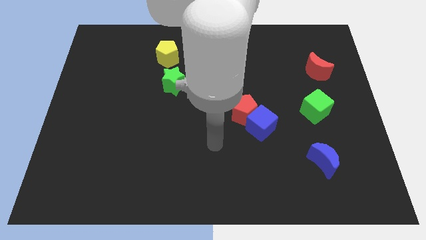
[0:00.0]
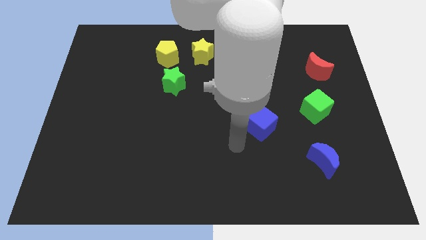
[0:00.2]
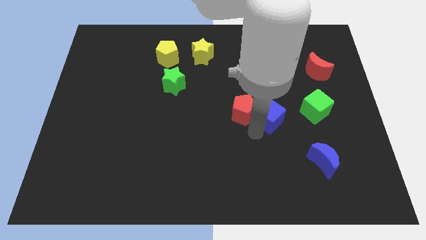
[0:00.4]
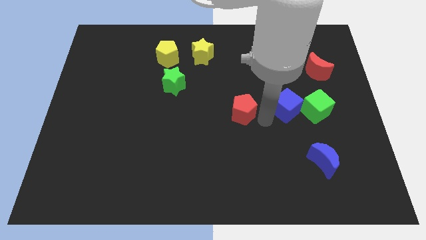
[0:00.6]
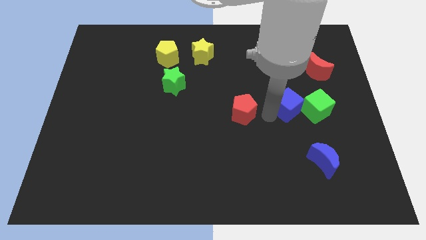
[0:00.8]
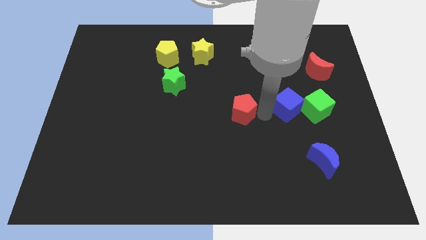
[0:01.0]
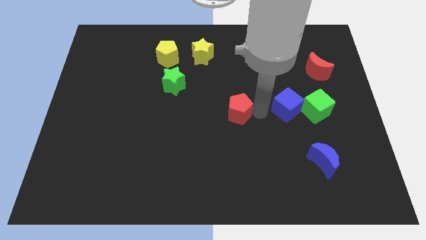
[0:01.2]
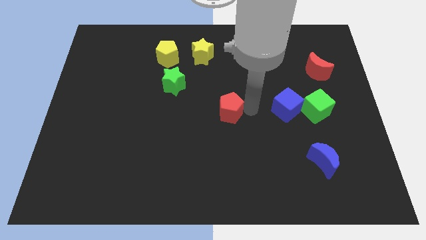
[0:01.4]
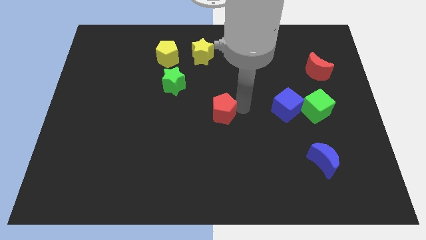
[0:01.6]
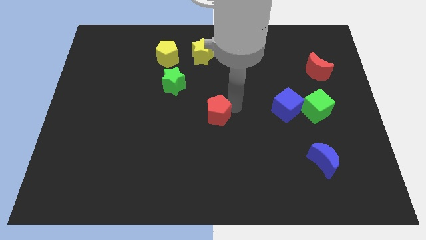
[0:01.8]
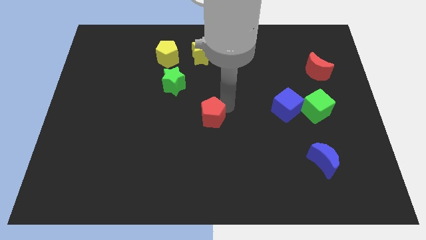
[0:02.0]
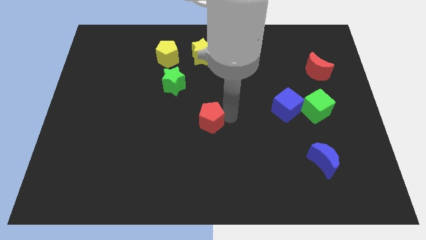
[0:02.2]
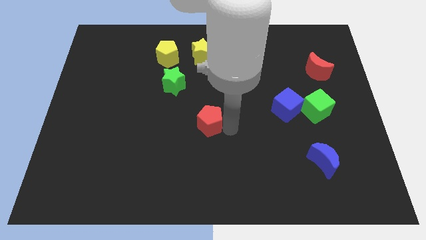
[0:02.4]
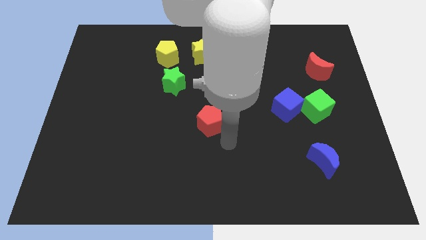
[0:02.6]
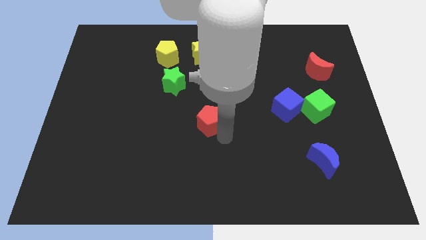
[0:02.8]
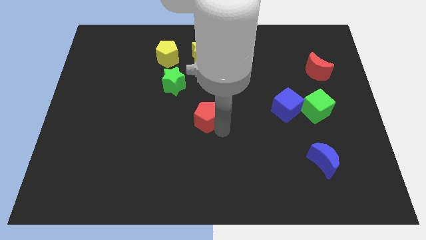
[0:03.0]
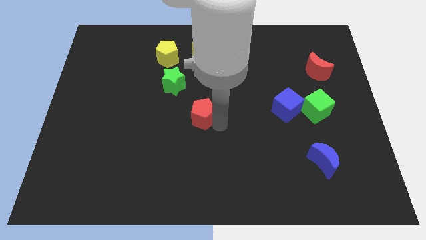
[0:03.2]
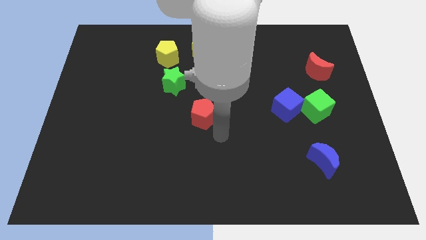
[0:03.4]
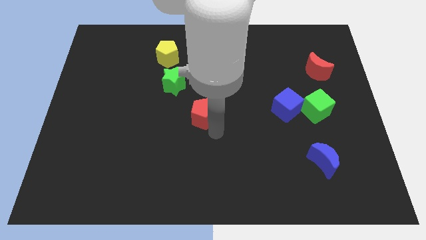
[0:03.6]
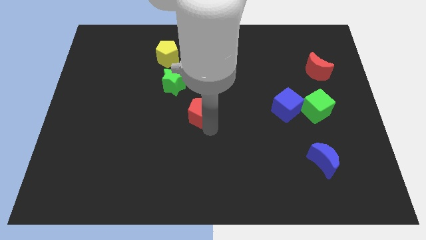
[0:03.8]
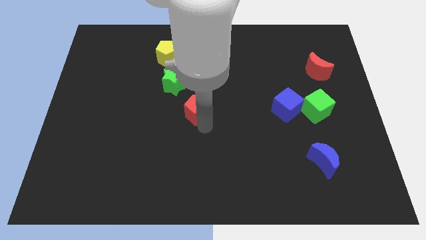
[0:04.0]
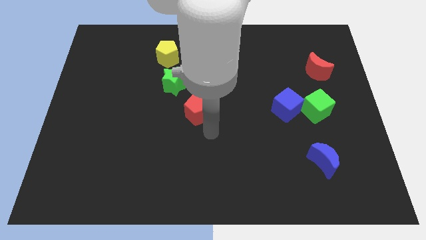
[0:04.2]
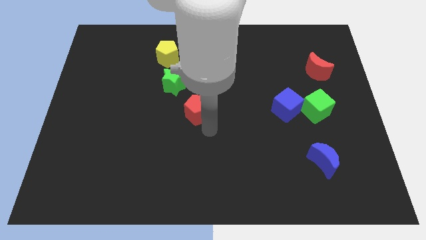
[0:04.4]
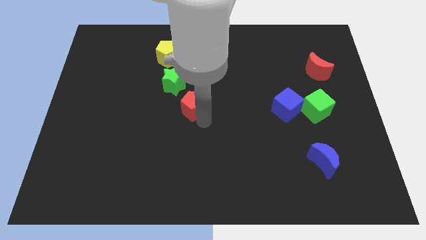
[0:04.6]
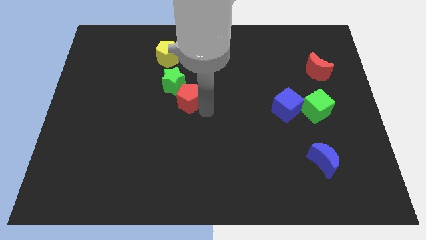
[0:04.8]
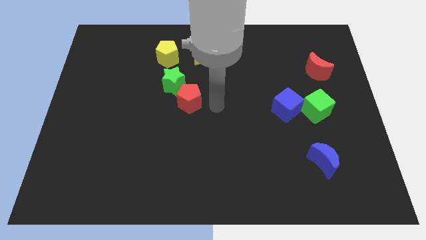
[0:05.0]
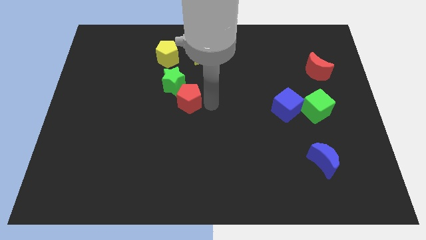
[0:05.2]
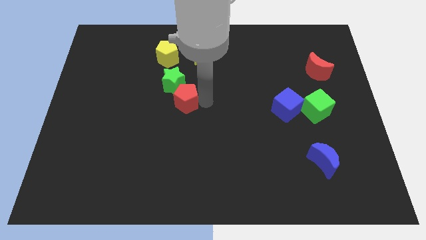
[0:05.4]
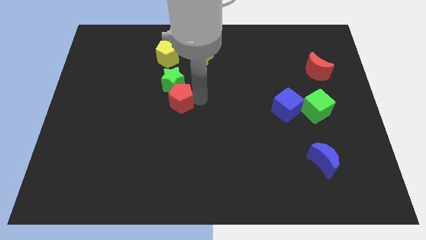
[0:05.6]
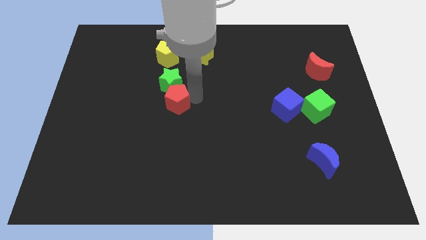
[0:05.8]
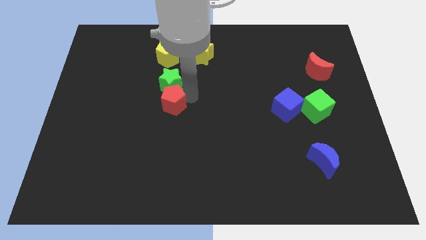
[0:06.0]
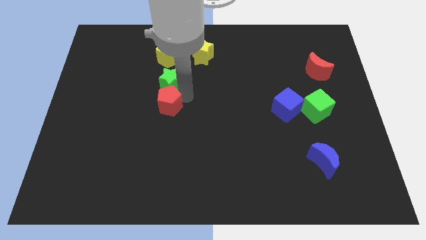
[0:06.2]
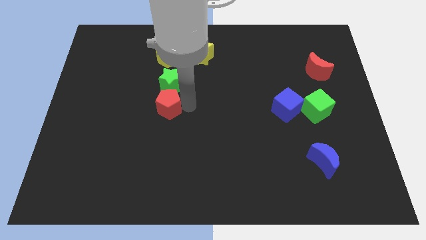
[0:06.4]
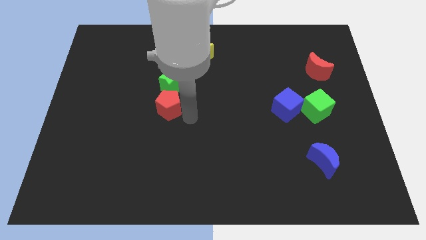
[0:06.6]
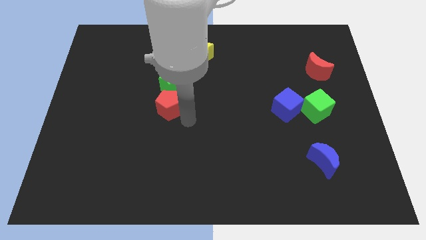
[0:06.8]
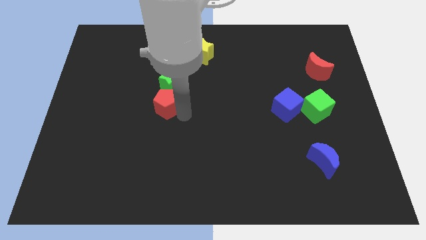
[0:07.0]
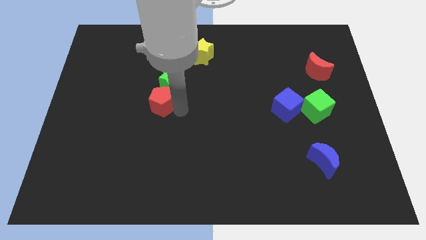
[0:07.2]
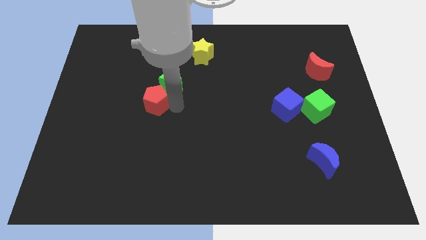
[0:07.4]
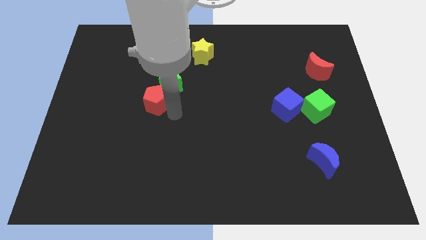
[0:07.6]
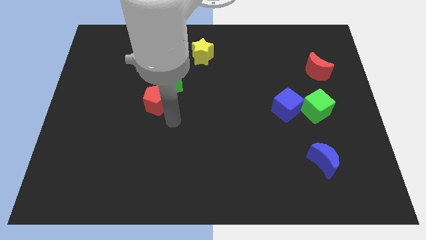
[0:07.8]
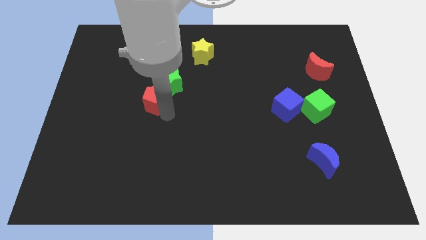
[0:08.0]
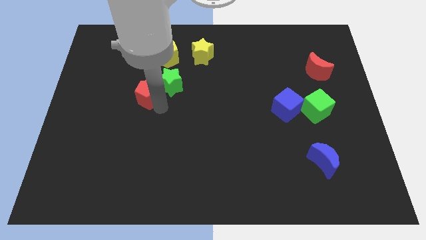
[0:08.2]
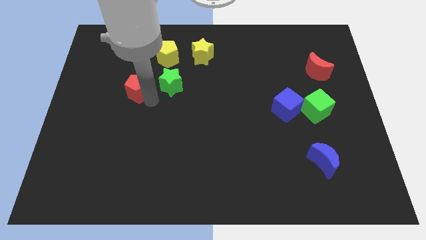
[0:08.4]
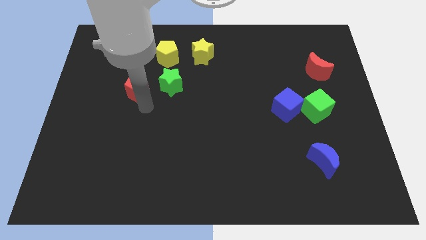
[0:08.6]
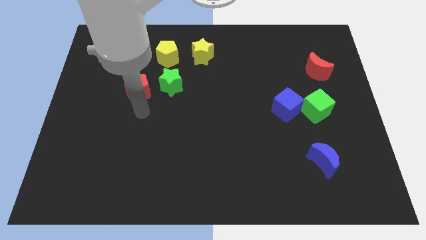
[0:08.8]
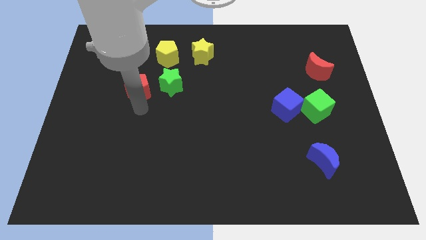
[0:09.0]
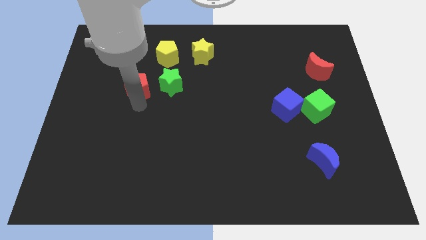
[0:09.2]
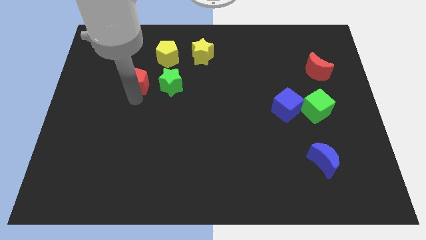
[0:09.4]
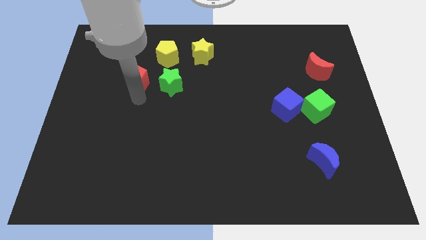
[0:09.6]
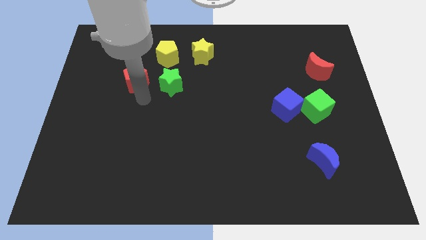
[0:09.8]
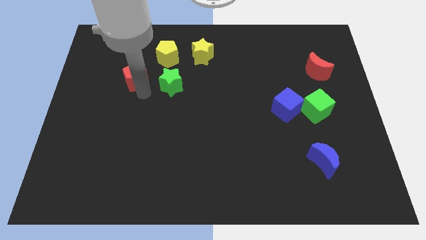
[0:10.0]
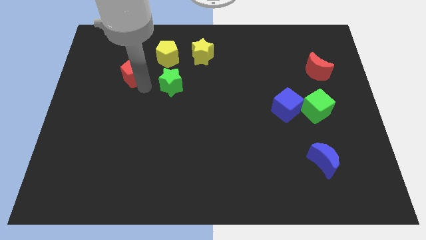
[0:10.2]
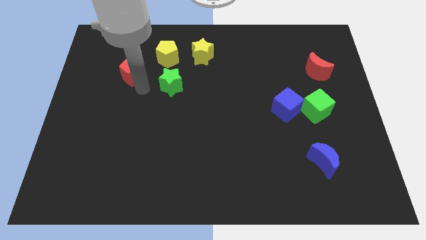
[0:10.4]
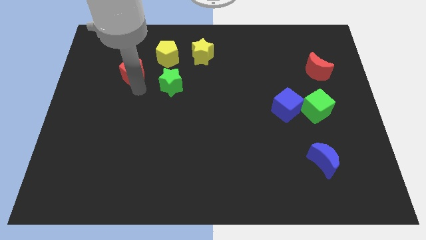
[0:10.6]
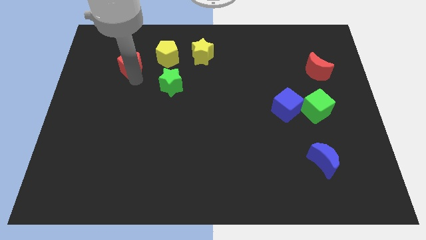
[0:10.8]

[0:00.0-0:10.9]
put the red pentagon just left of the yellow pentagon

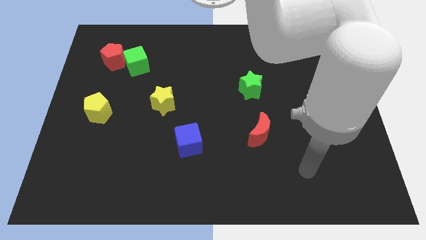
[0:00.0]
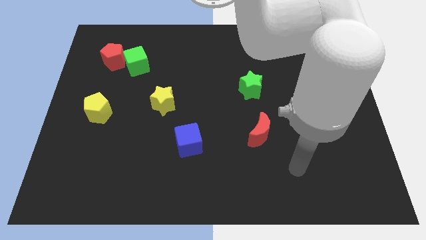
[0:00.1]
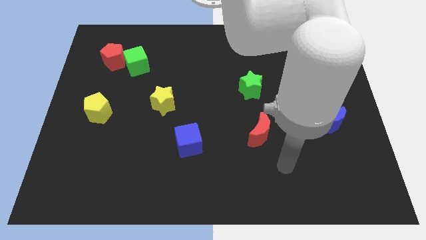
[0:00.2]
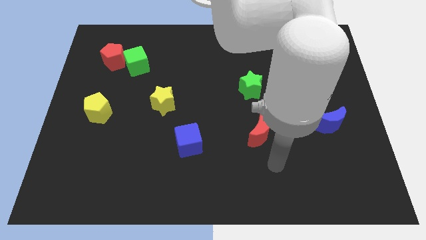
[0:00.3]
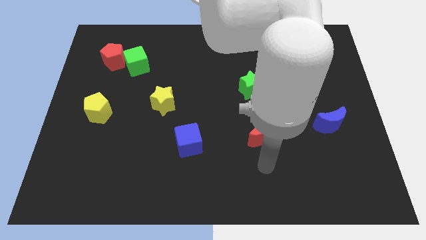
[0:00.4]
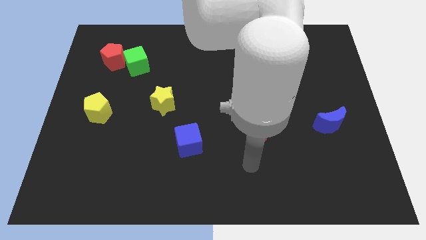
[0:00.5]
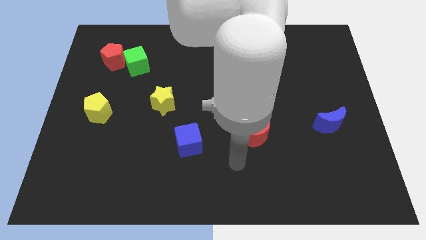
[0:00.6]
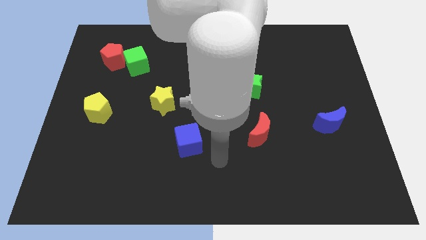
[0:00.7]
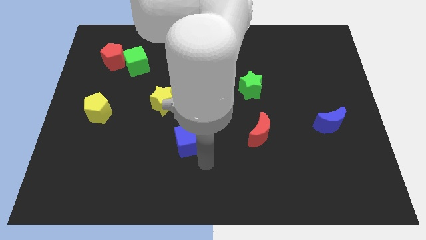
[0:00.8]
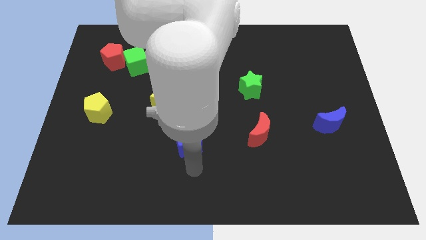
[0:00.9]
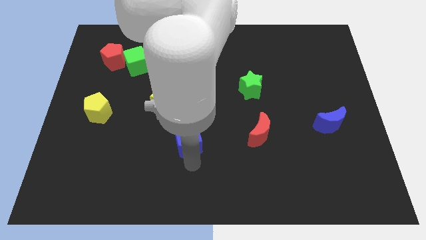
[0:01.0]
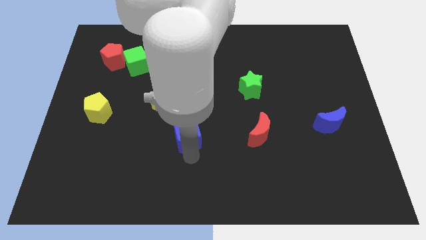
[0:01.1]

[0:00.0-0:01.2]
slide the blue cube to the bottom right of the yellow star

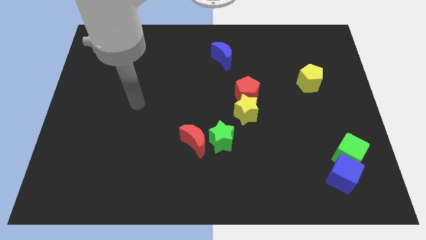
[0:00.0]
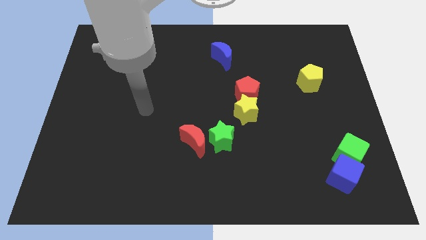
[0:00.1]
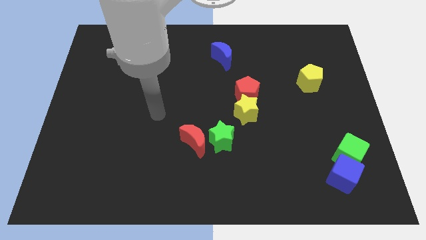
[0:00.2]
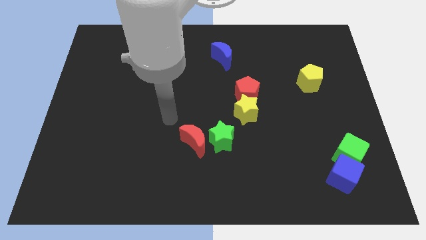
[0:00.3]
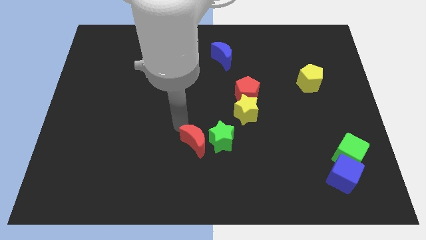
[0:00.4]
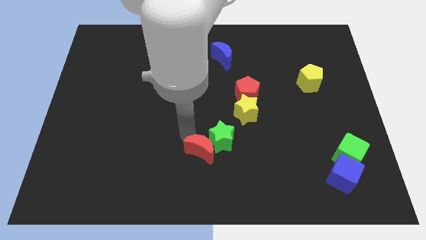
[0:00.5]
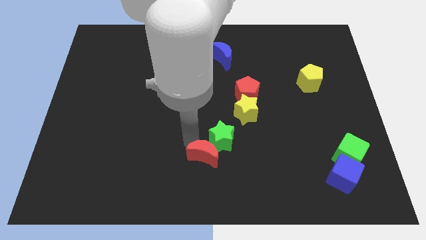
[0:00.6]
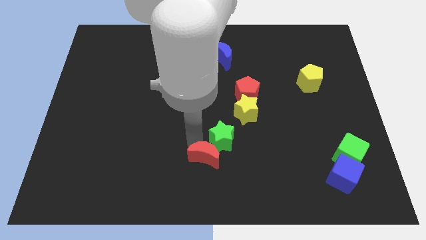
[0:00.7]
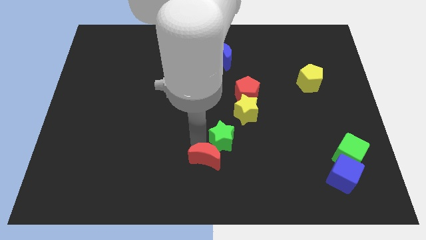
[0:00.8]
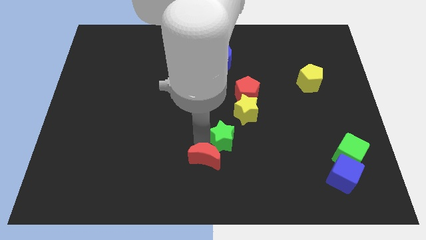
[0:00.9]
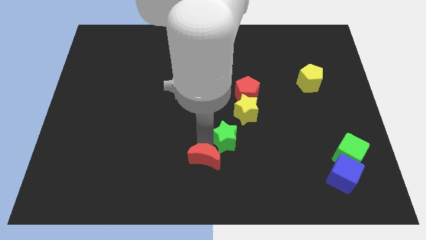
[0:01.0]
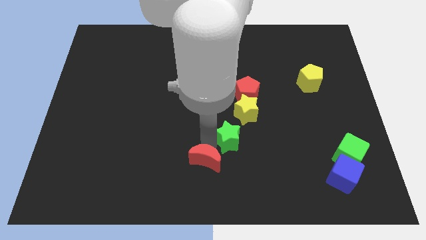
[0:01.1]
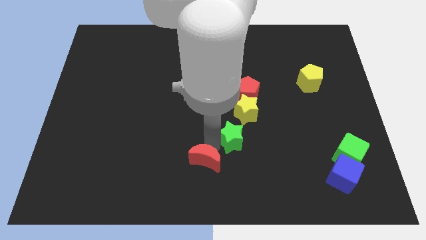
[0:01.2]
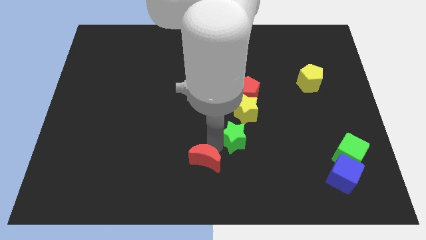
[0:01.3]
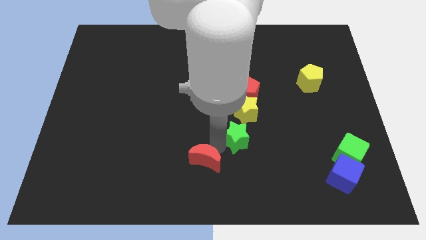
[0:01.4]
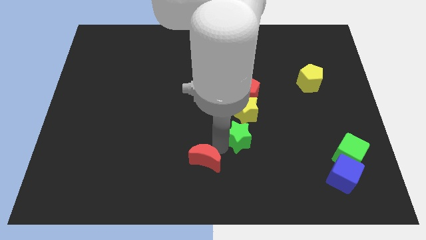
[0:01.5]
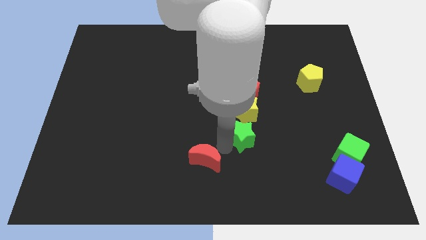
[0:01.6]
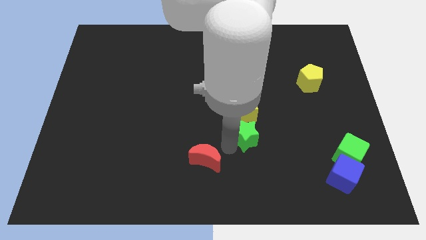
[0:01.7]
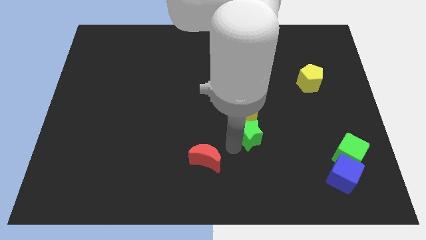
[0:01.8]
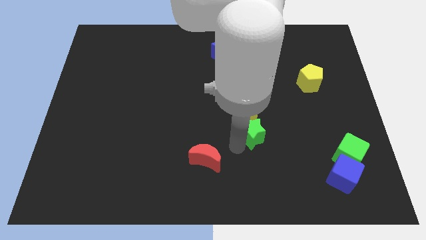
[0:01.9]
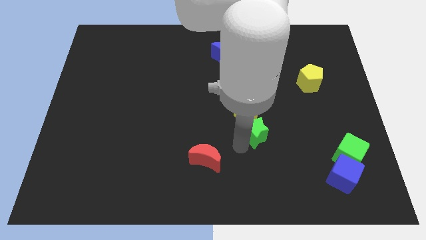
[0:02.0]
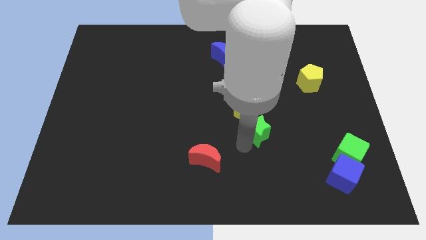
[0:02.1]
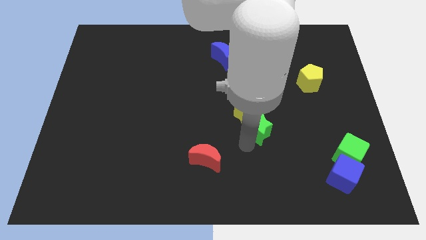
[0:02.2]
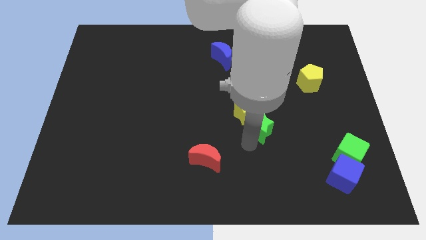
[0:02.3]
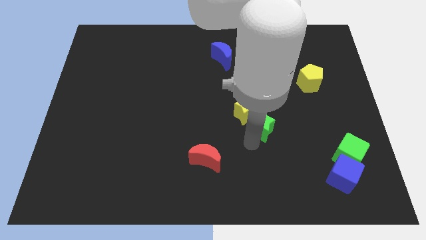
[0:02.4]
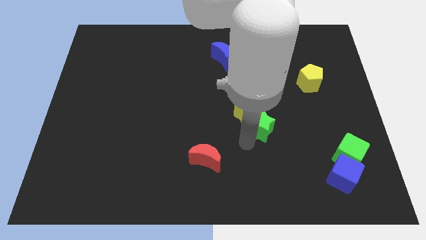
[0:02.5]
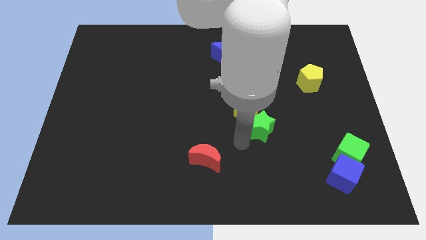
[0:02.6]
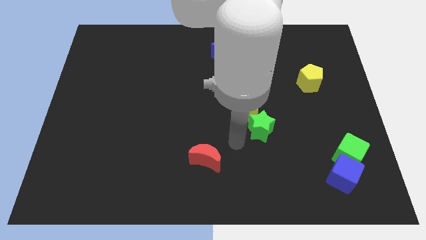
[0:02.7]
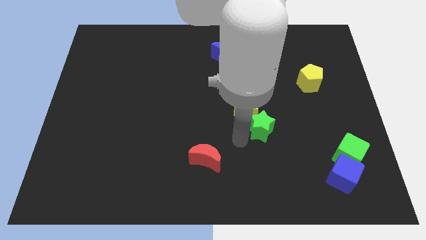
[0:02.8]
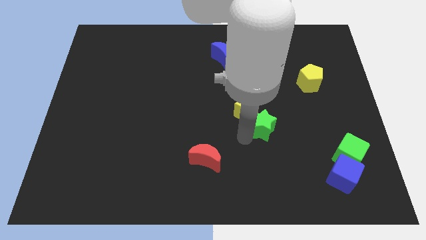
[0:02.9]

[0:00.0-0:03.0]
put the green star to the right of the yellow star
